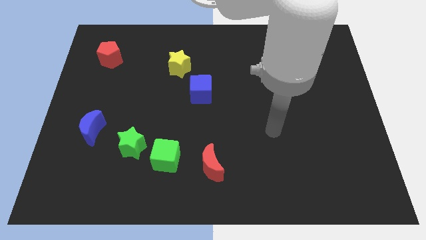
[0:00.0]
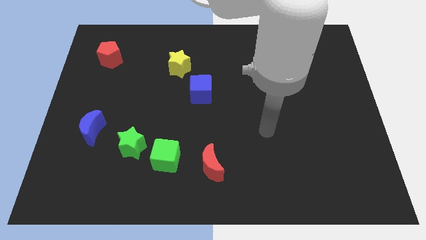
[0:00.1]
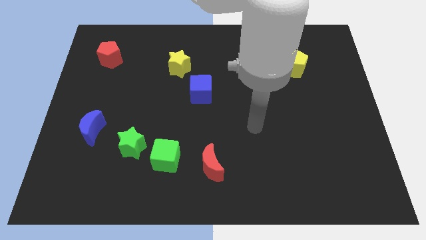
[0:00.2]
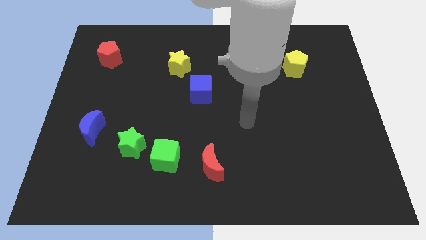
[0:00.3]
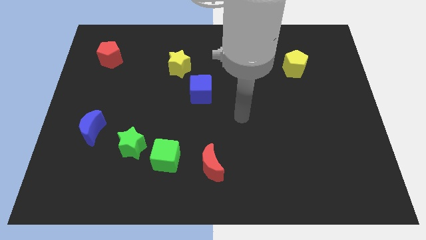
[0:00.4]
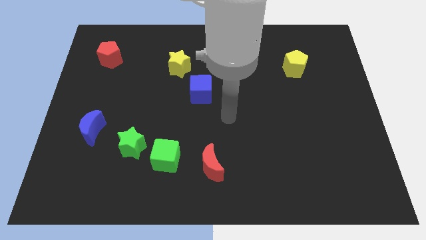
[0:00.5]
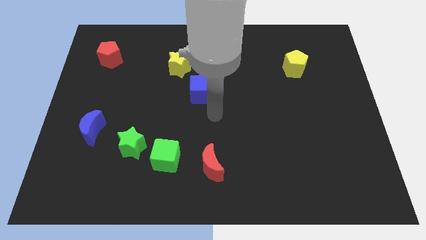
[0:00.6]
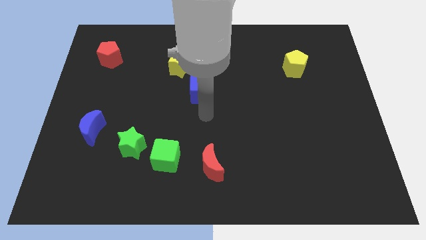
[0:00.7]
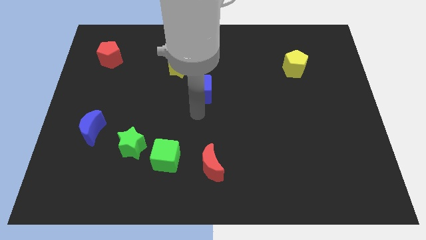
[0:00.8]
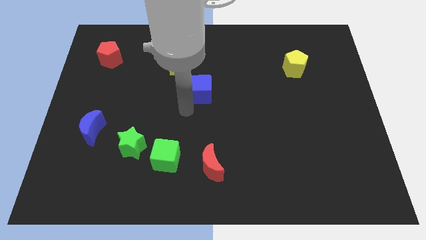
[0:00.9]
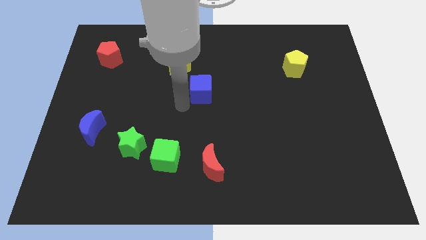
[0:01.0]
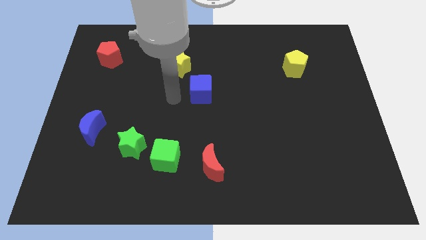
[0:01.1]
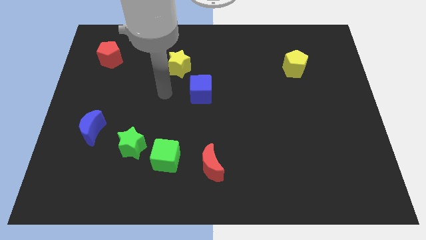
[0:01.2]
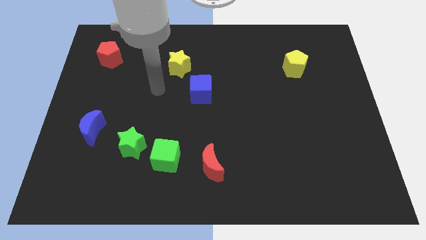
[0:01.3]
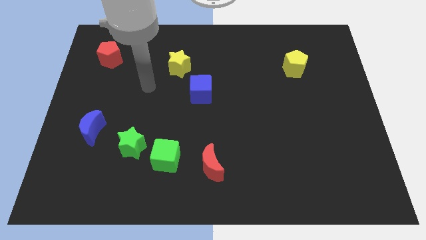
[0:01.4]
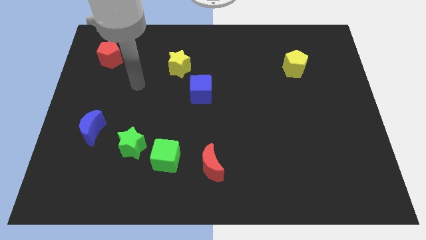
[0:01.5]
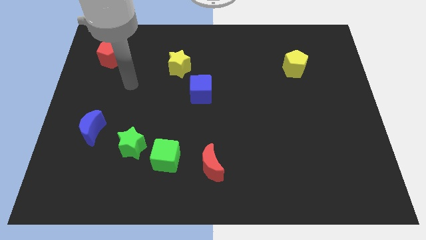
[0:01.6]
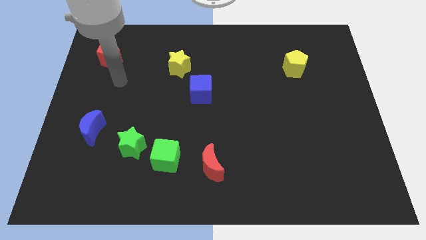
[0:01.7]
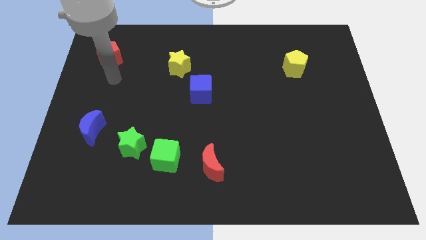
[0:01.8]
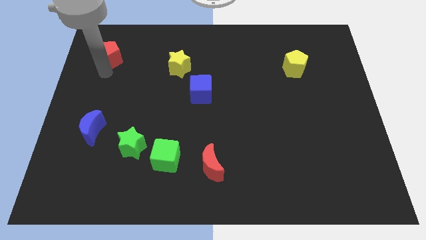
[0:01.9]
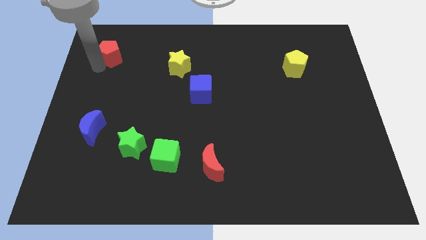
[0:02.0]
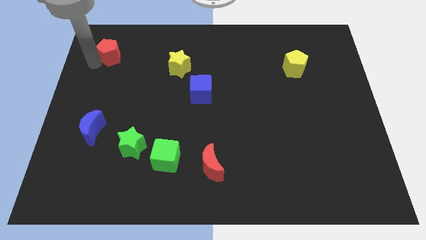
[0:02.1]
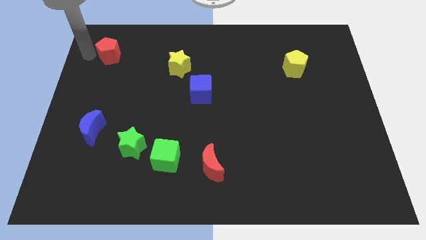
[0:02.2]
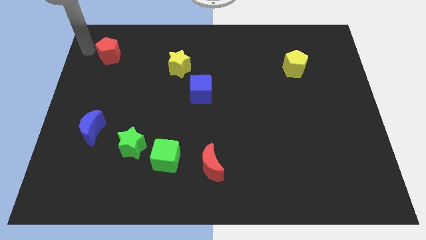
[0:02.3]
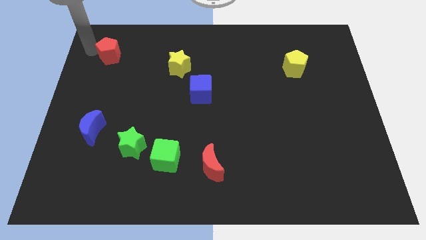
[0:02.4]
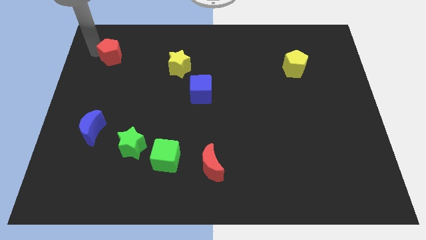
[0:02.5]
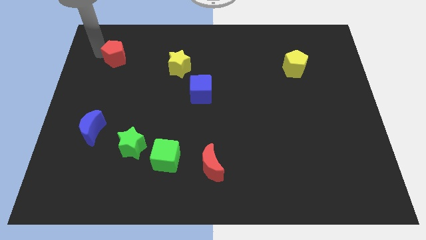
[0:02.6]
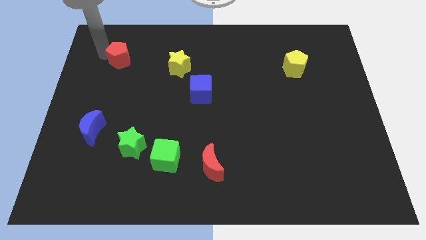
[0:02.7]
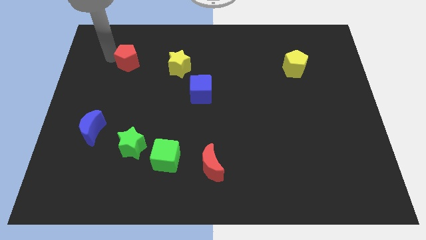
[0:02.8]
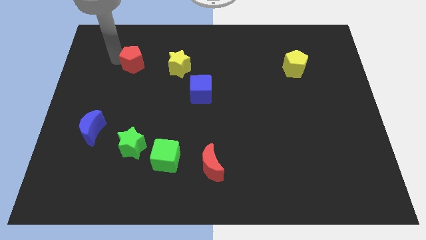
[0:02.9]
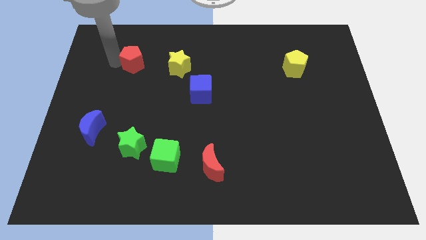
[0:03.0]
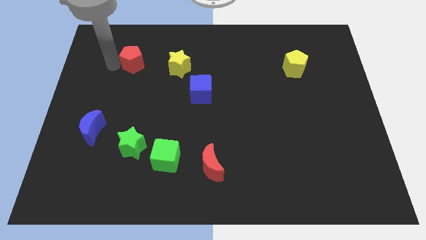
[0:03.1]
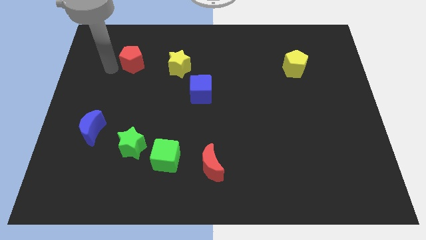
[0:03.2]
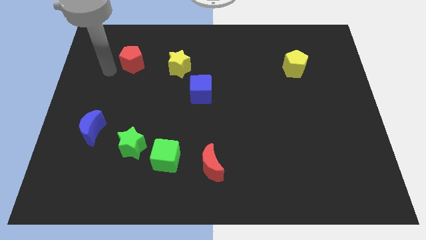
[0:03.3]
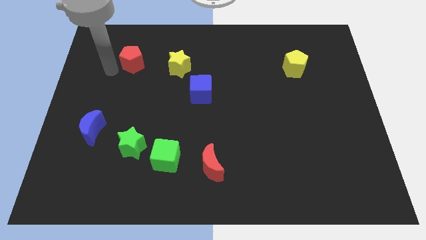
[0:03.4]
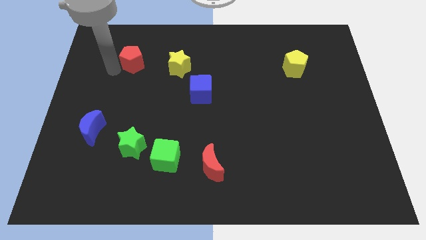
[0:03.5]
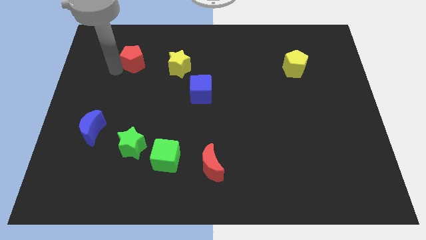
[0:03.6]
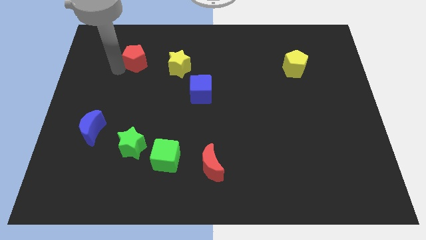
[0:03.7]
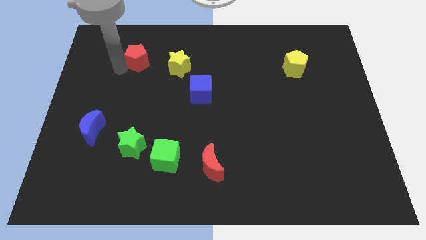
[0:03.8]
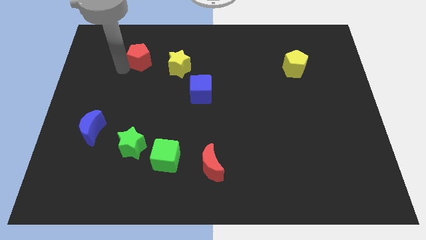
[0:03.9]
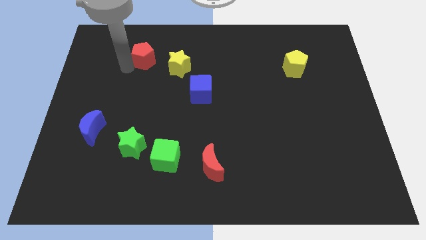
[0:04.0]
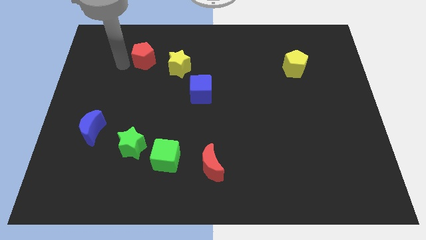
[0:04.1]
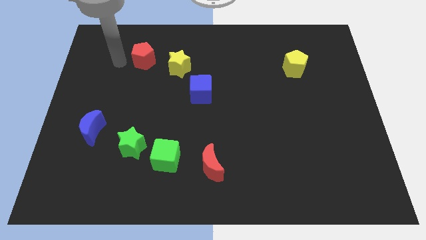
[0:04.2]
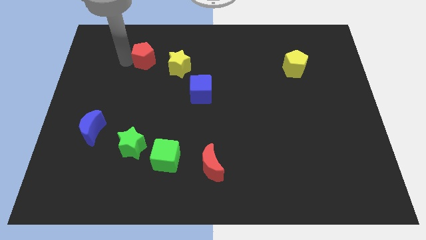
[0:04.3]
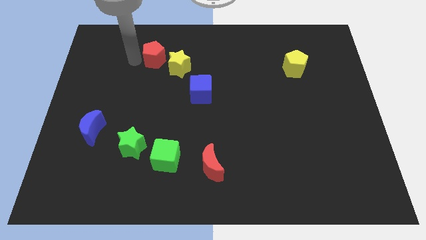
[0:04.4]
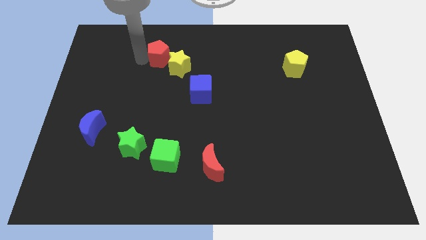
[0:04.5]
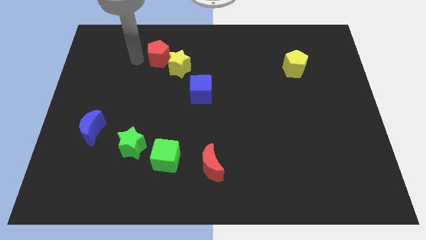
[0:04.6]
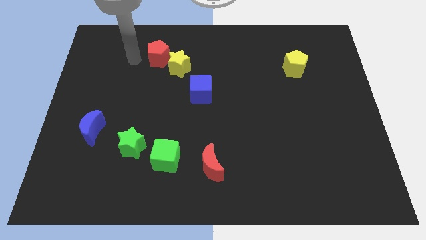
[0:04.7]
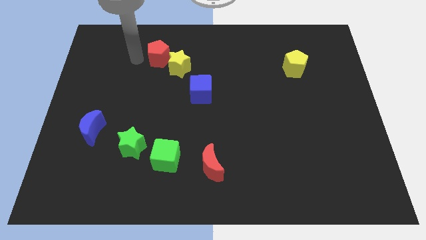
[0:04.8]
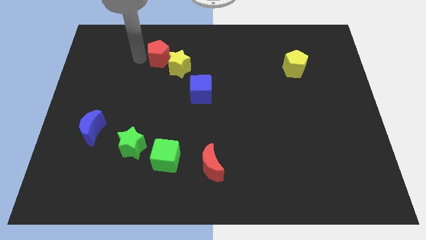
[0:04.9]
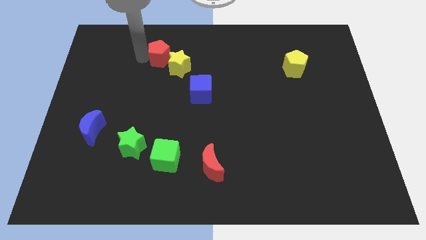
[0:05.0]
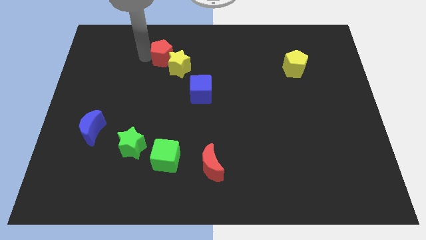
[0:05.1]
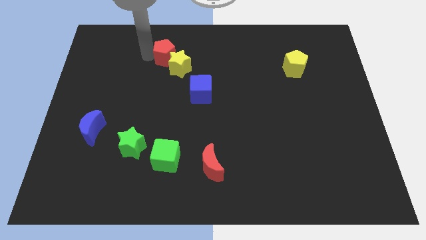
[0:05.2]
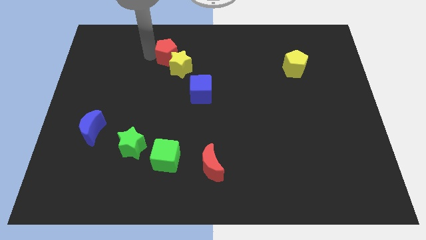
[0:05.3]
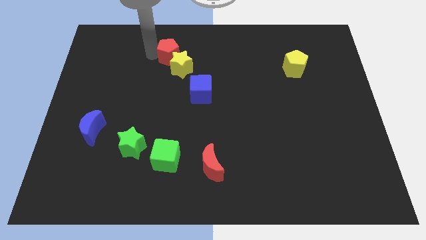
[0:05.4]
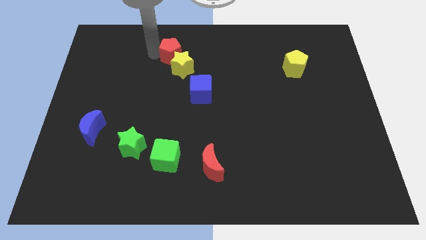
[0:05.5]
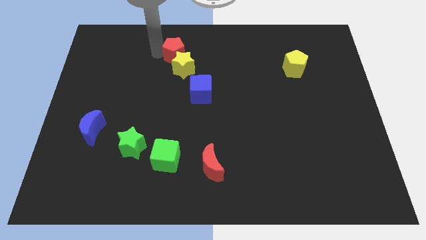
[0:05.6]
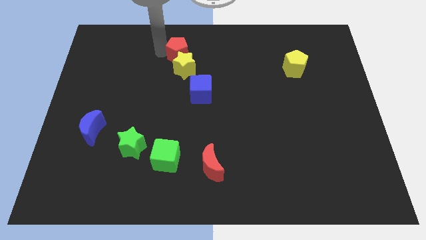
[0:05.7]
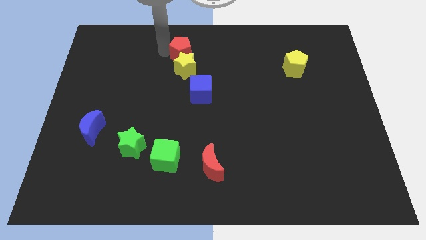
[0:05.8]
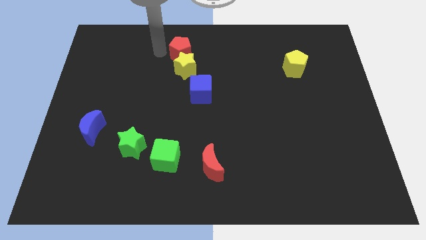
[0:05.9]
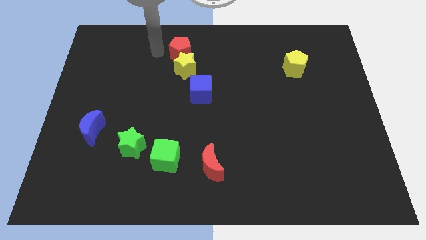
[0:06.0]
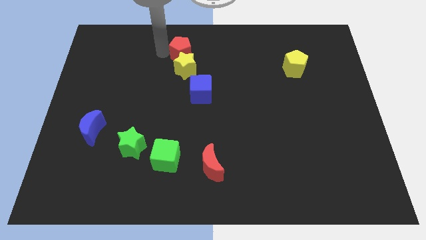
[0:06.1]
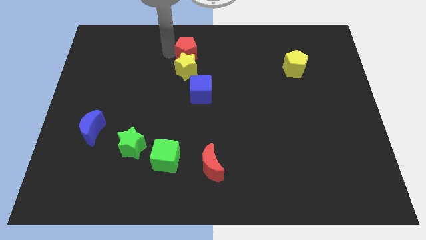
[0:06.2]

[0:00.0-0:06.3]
move the red pentagon right

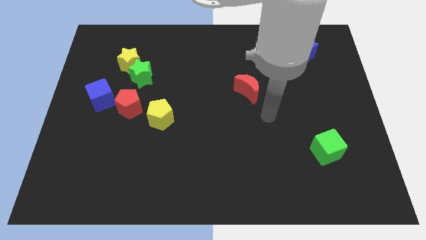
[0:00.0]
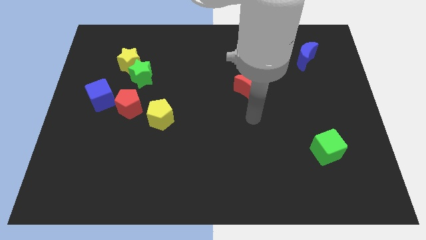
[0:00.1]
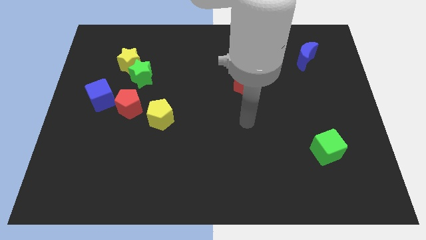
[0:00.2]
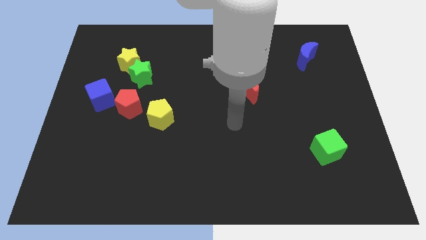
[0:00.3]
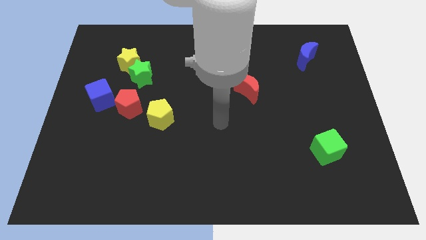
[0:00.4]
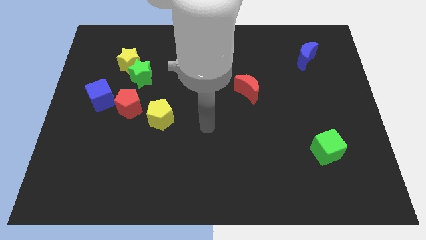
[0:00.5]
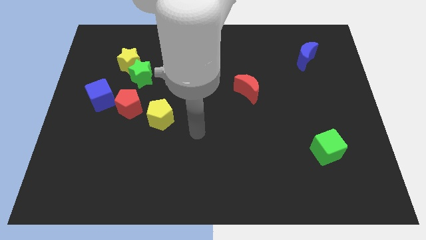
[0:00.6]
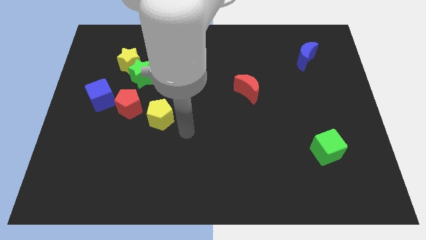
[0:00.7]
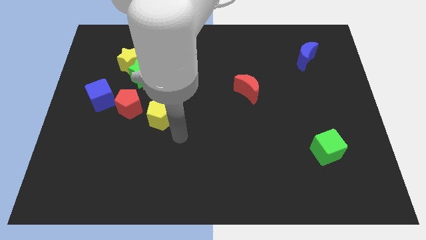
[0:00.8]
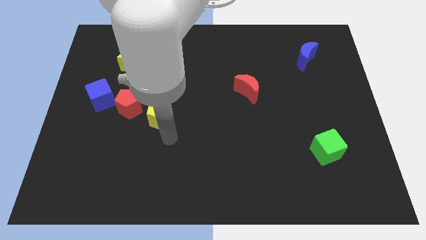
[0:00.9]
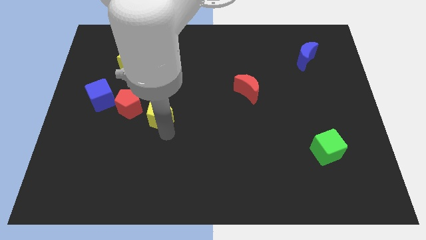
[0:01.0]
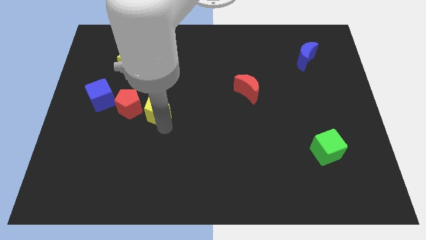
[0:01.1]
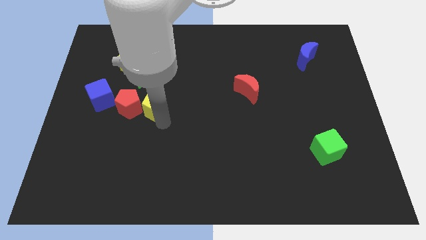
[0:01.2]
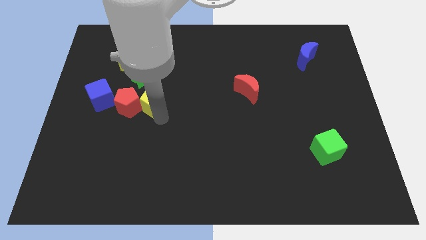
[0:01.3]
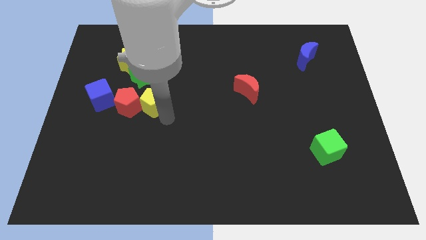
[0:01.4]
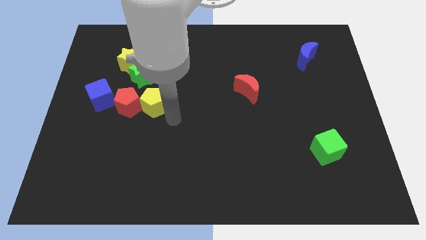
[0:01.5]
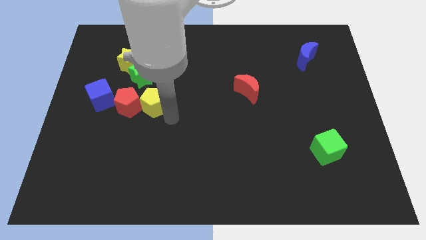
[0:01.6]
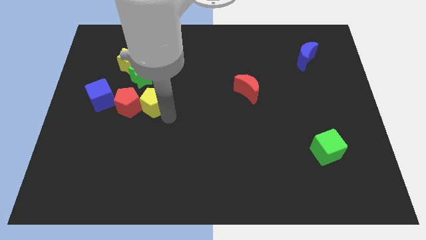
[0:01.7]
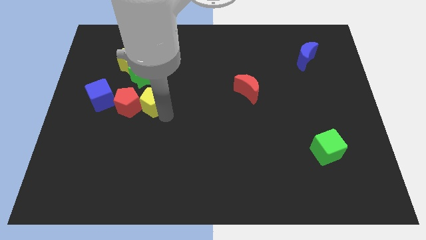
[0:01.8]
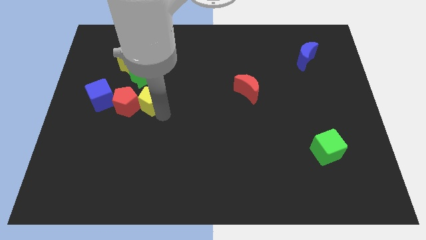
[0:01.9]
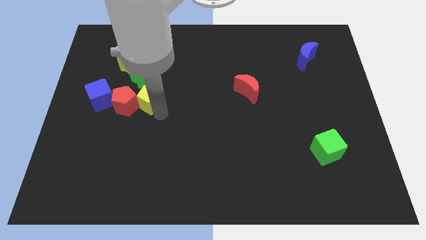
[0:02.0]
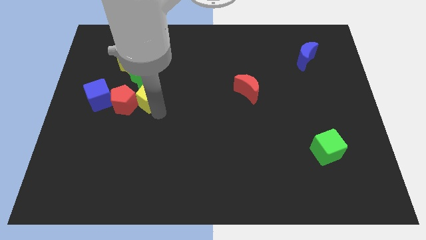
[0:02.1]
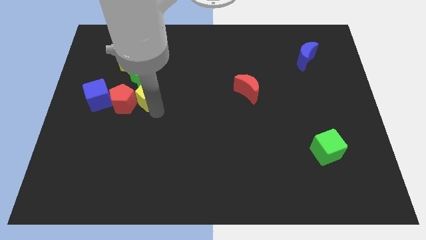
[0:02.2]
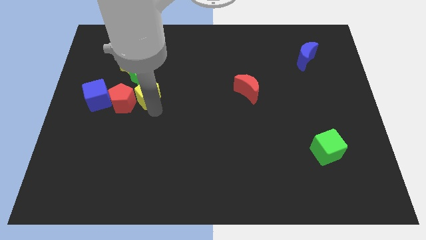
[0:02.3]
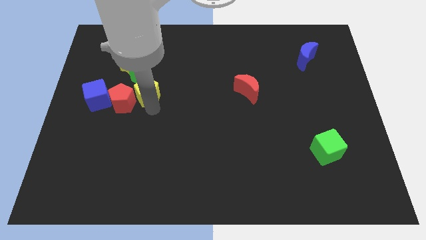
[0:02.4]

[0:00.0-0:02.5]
slightly push the yellow pentagon up and then left
